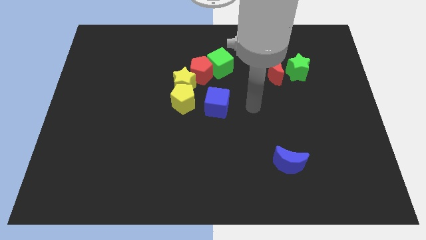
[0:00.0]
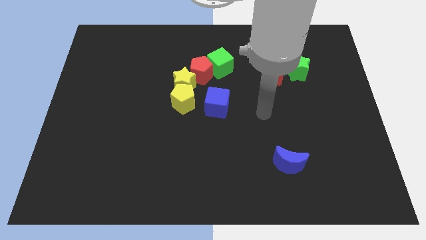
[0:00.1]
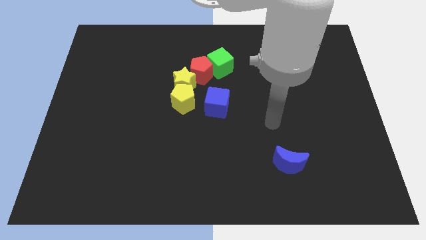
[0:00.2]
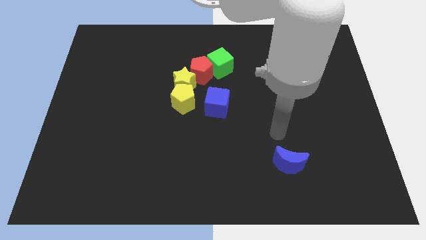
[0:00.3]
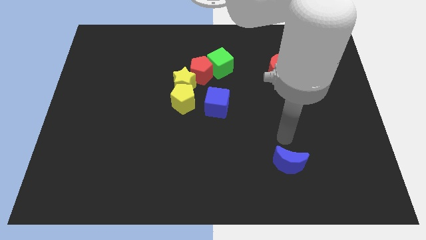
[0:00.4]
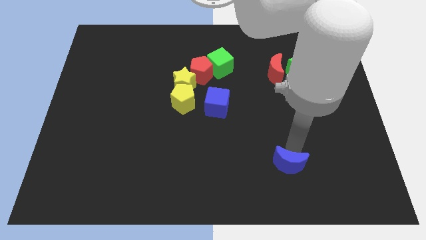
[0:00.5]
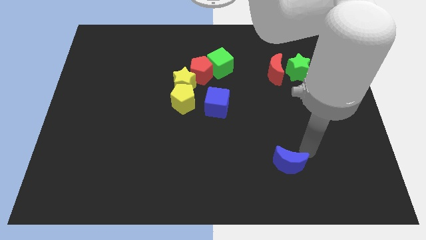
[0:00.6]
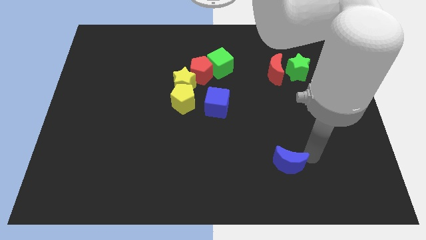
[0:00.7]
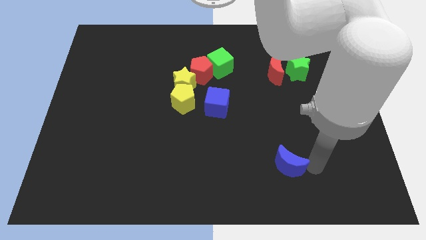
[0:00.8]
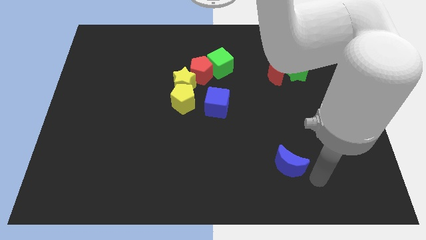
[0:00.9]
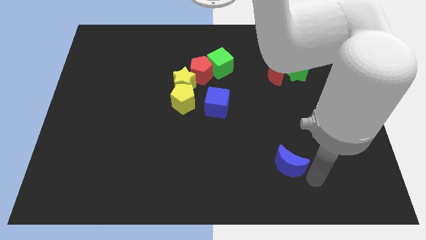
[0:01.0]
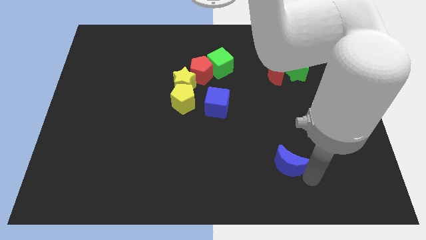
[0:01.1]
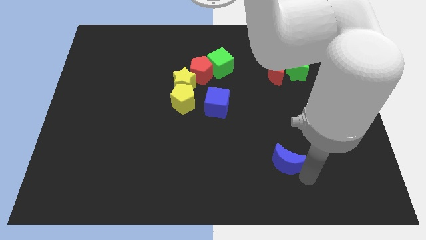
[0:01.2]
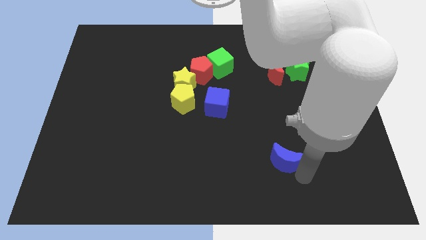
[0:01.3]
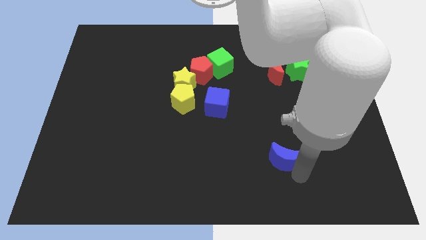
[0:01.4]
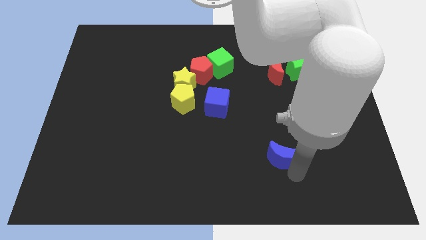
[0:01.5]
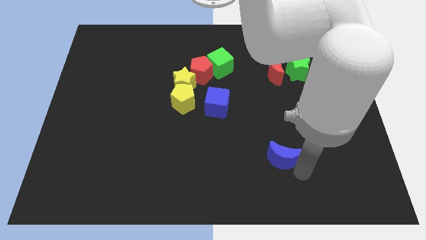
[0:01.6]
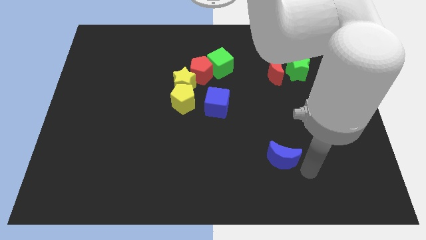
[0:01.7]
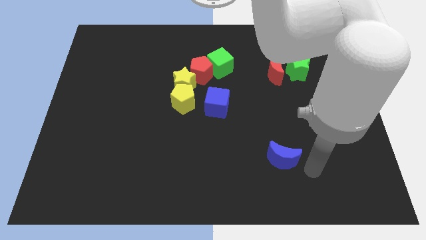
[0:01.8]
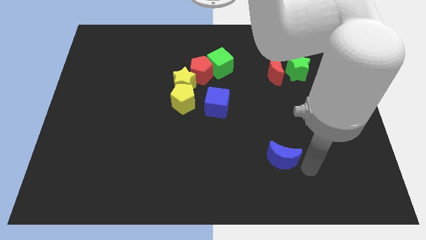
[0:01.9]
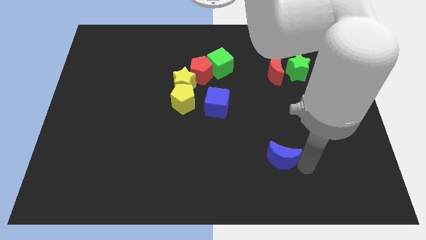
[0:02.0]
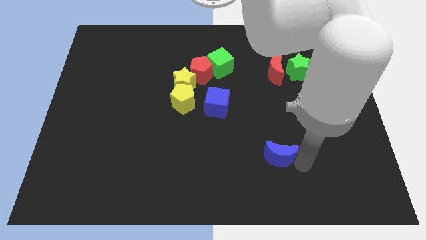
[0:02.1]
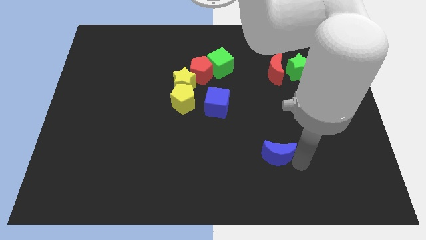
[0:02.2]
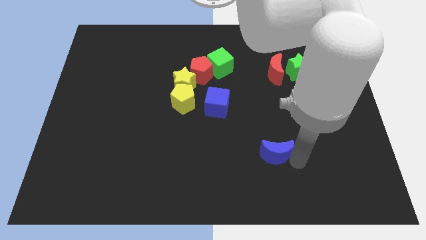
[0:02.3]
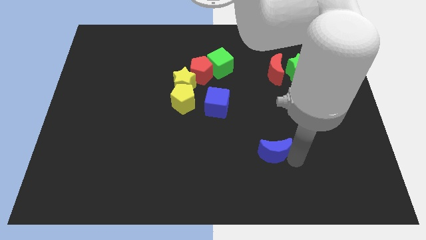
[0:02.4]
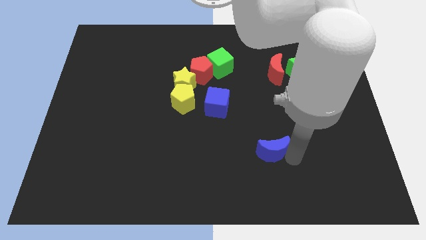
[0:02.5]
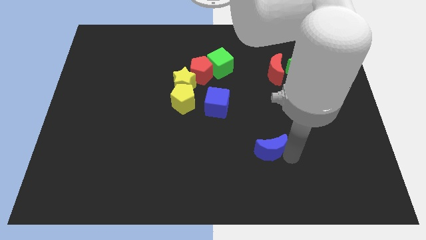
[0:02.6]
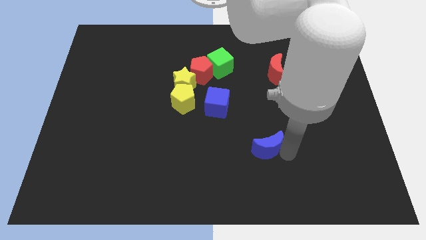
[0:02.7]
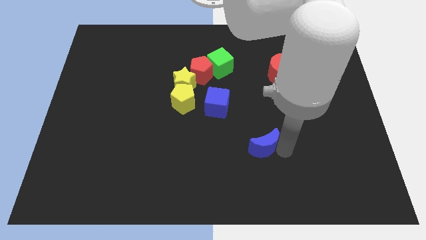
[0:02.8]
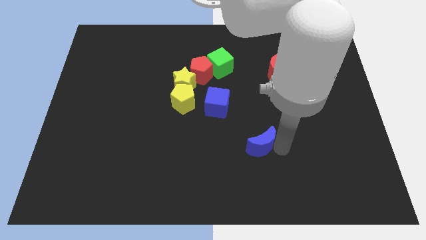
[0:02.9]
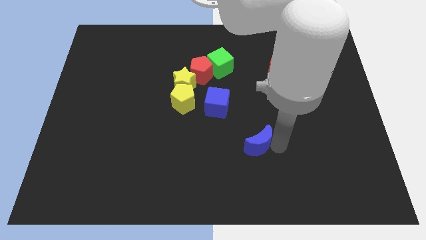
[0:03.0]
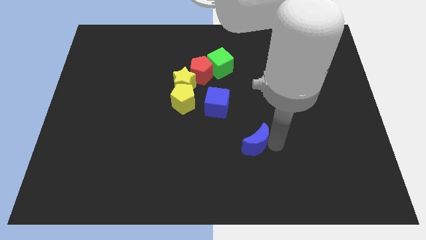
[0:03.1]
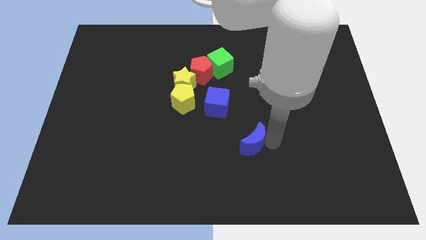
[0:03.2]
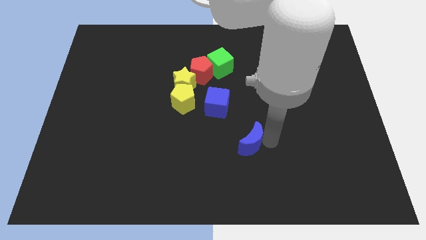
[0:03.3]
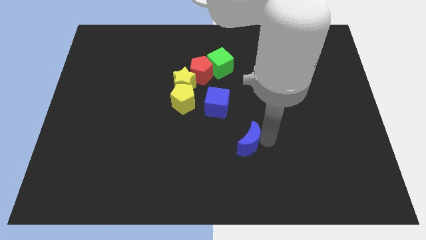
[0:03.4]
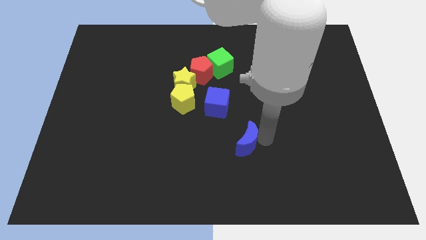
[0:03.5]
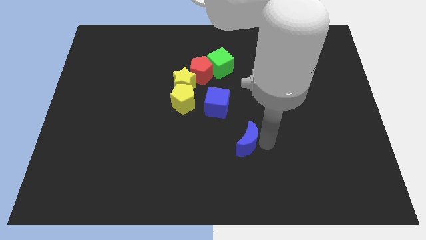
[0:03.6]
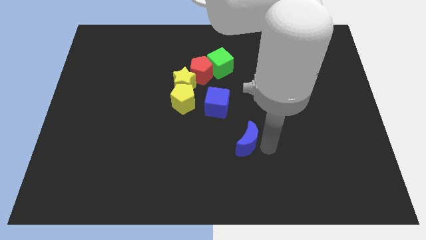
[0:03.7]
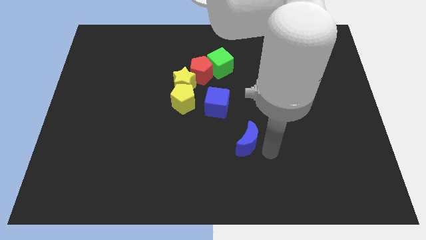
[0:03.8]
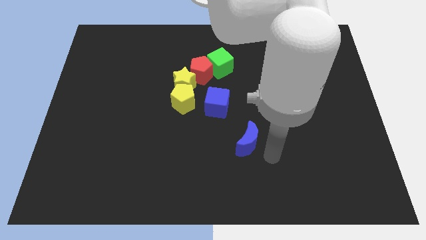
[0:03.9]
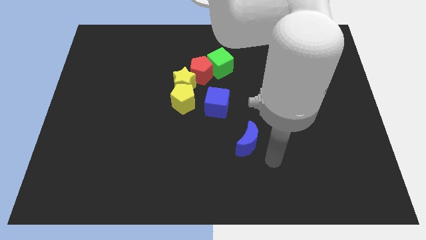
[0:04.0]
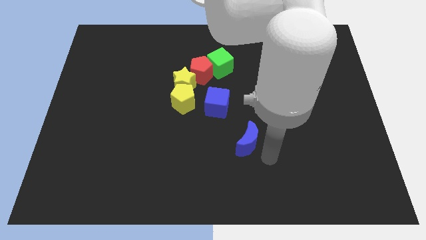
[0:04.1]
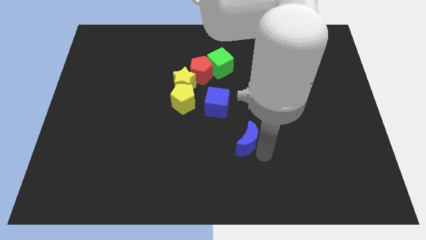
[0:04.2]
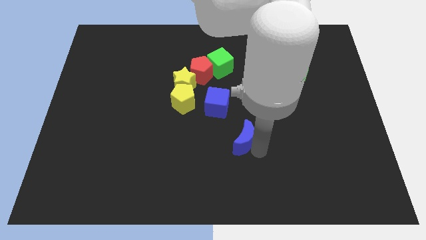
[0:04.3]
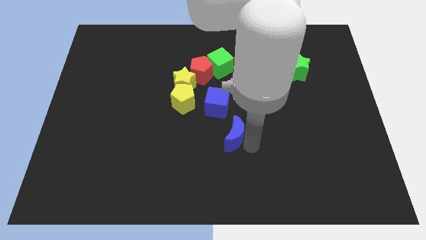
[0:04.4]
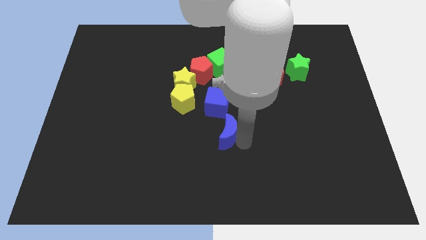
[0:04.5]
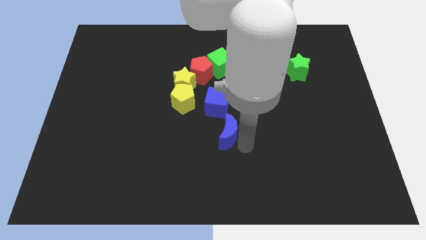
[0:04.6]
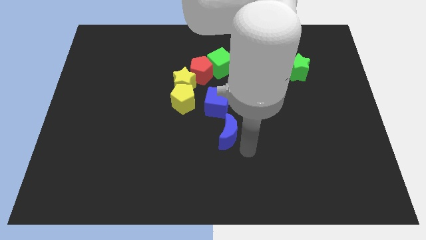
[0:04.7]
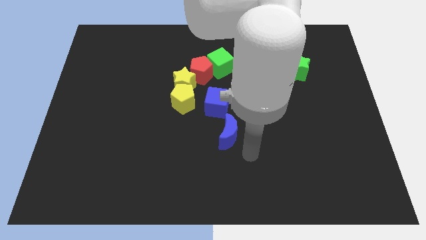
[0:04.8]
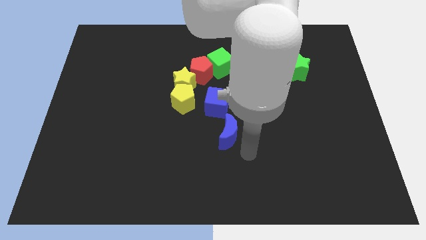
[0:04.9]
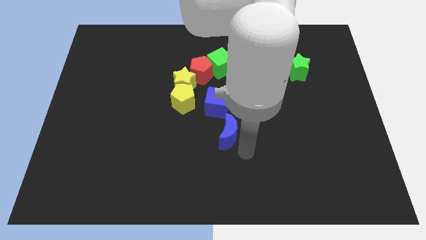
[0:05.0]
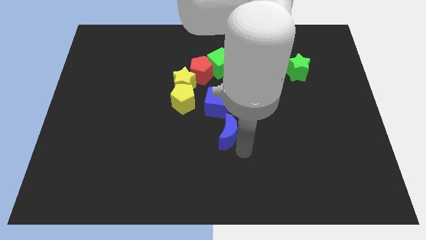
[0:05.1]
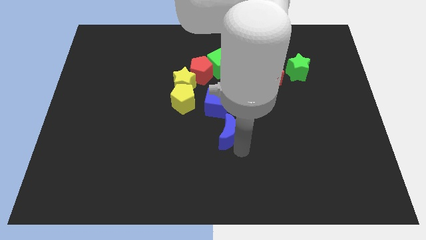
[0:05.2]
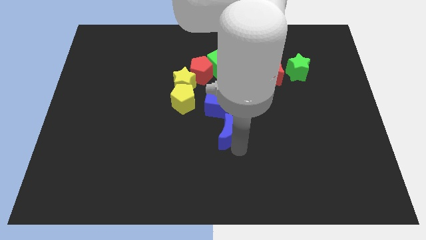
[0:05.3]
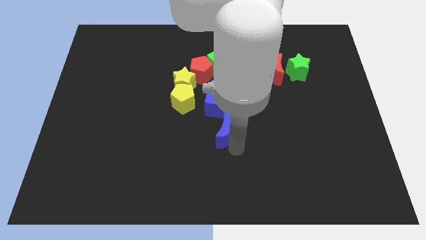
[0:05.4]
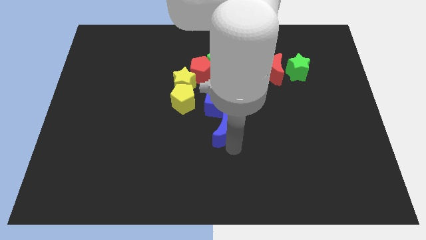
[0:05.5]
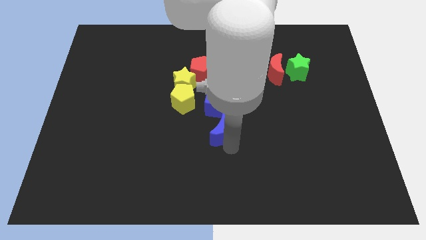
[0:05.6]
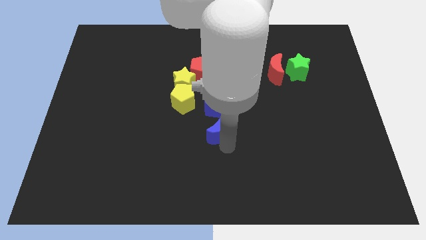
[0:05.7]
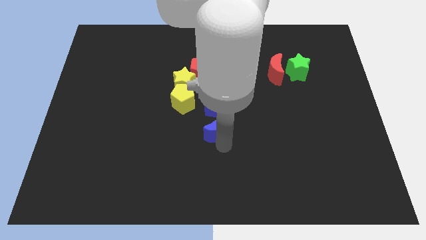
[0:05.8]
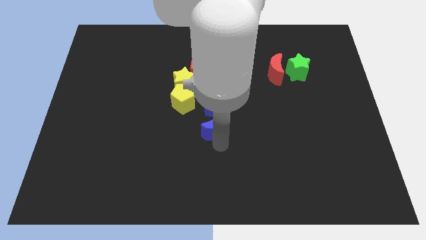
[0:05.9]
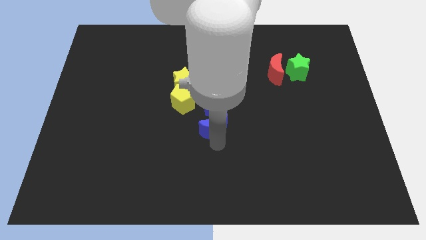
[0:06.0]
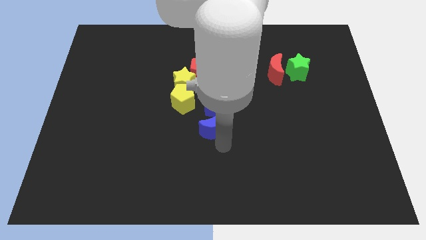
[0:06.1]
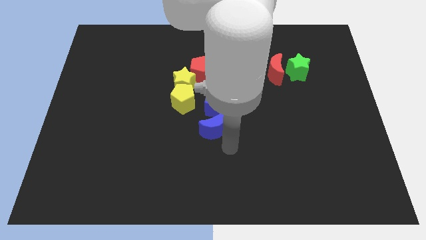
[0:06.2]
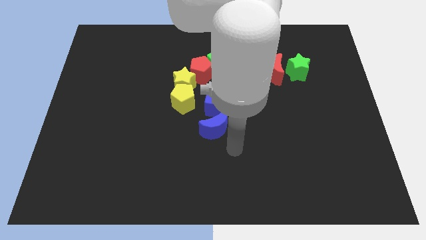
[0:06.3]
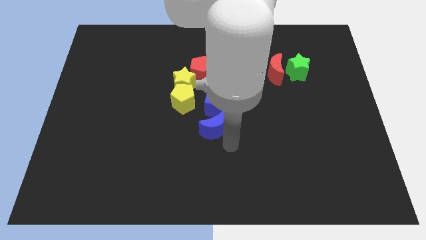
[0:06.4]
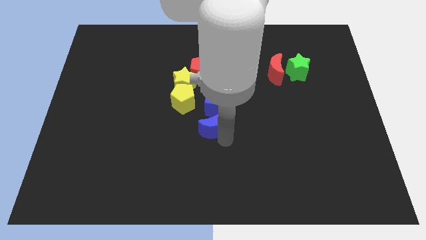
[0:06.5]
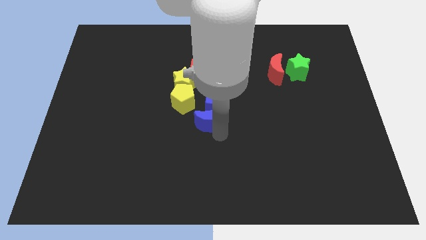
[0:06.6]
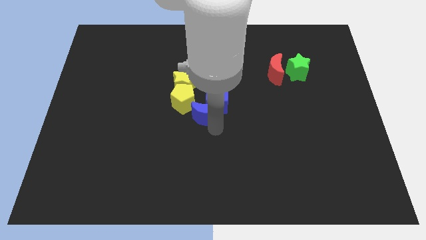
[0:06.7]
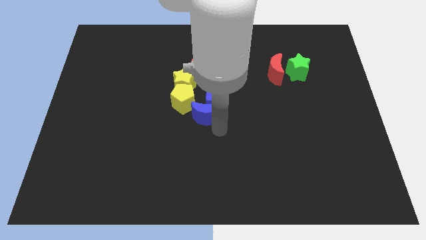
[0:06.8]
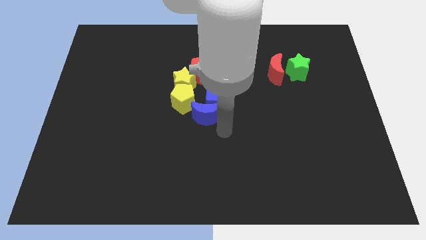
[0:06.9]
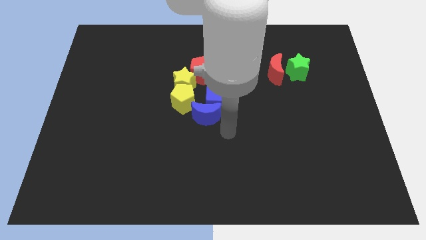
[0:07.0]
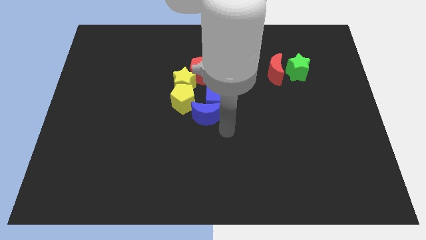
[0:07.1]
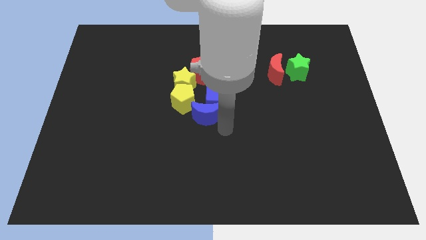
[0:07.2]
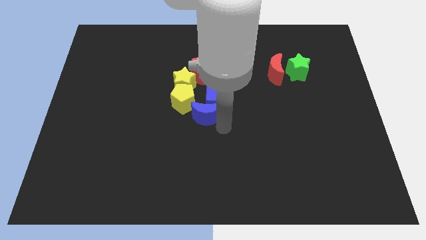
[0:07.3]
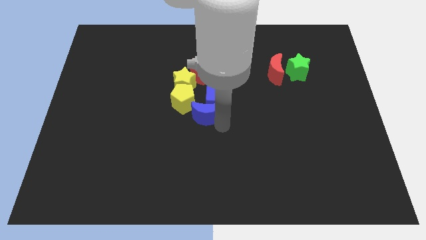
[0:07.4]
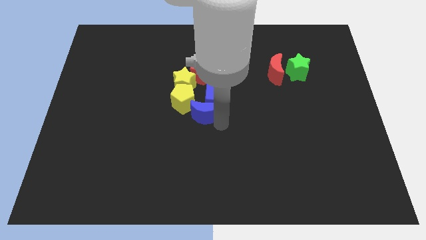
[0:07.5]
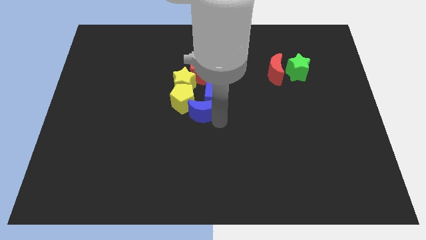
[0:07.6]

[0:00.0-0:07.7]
put the blue moon next to the yellow pentagon
